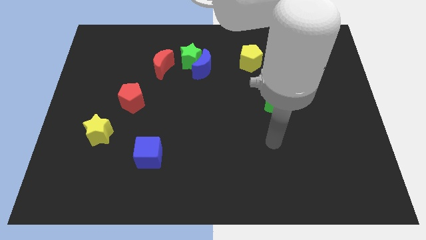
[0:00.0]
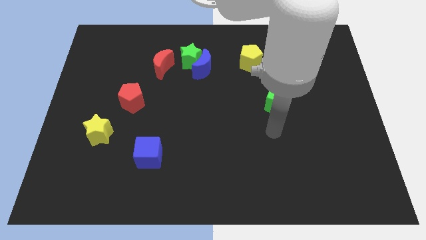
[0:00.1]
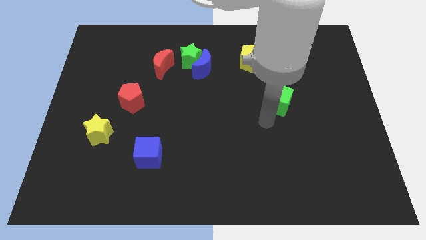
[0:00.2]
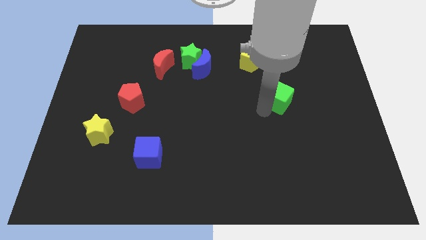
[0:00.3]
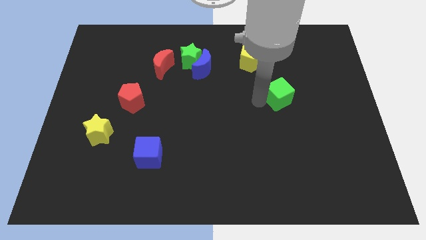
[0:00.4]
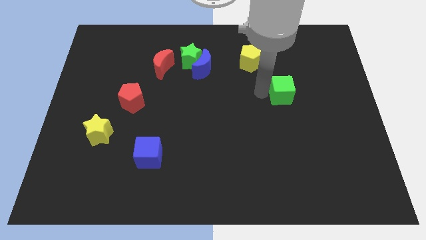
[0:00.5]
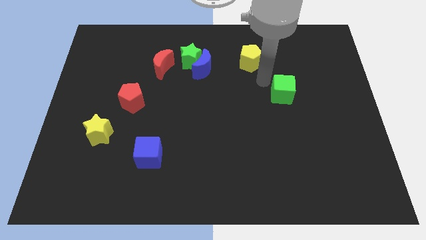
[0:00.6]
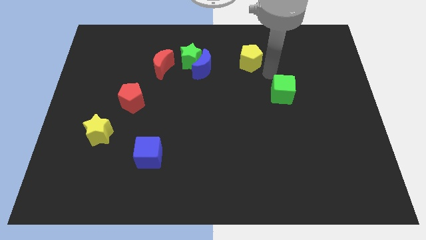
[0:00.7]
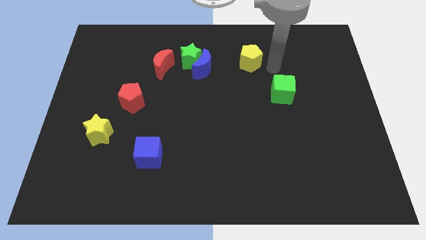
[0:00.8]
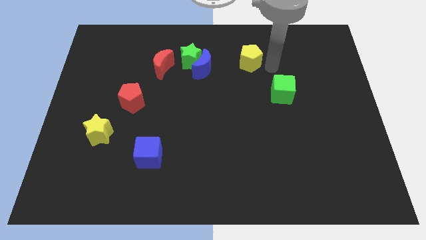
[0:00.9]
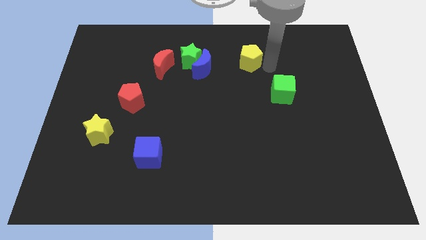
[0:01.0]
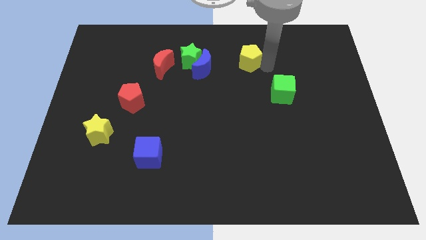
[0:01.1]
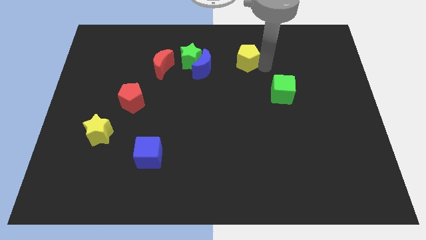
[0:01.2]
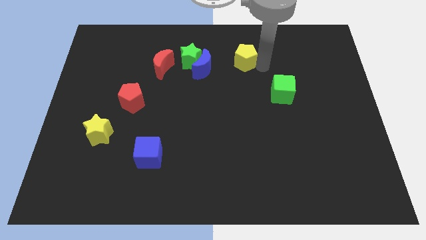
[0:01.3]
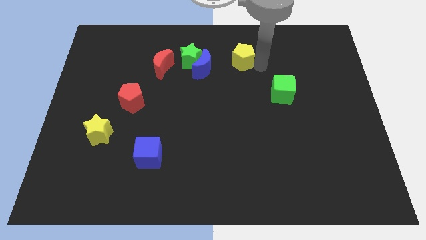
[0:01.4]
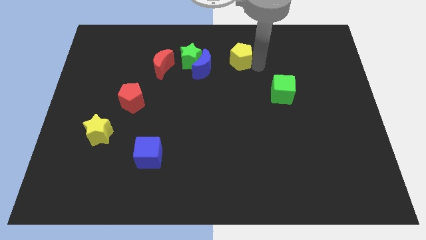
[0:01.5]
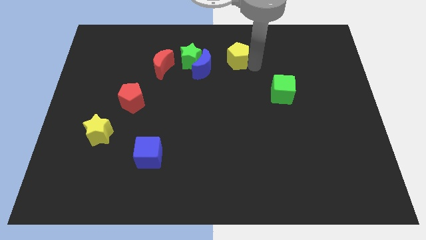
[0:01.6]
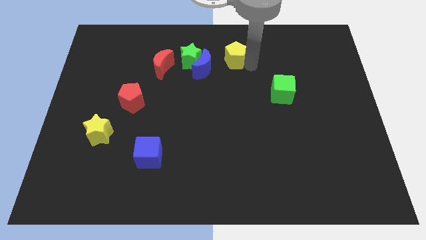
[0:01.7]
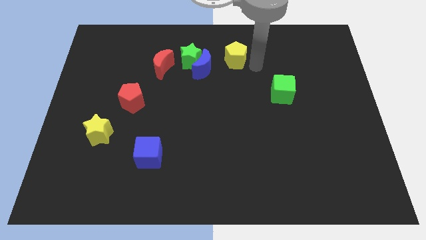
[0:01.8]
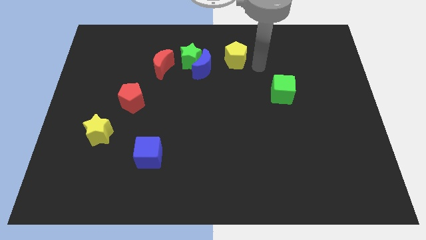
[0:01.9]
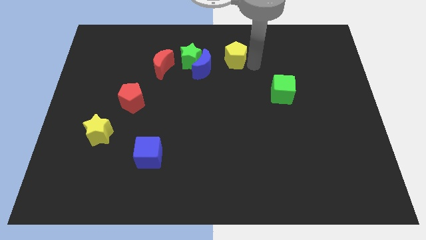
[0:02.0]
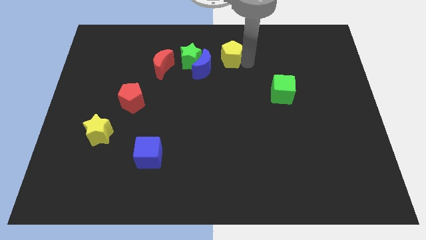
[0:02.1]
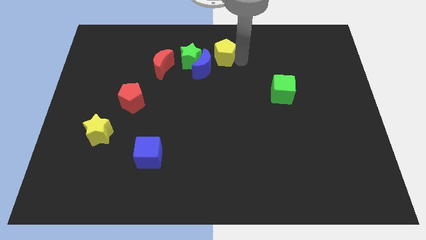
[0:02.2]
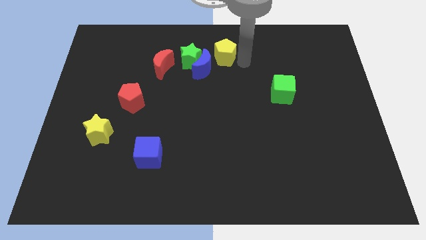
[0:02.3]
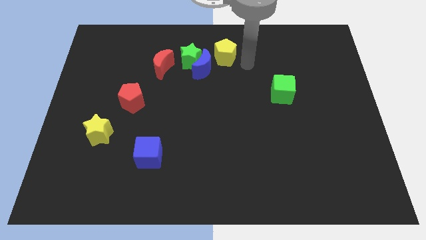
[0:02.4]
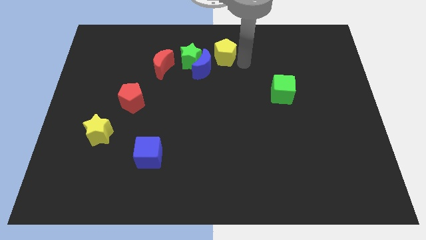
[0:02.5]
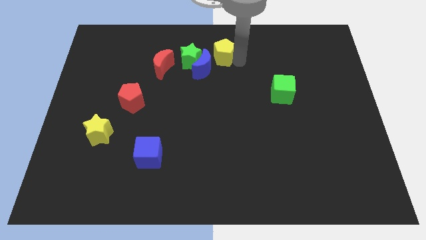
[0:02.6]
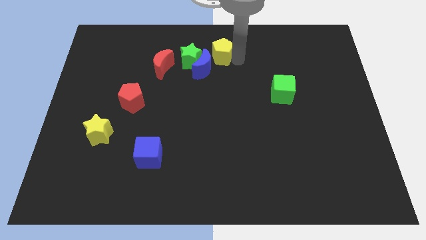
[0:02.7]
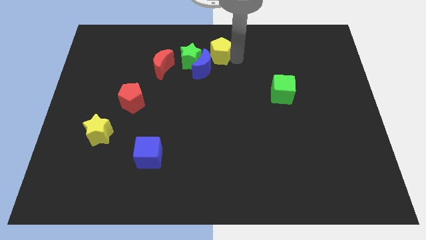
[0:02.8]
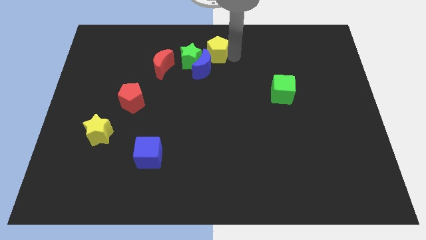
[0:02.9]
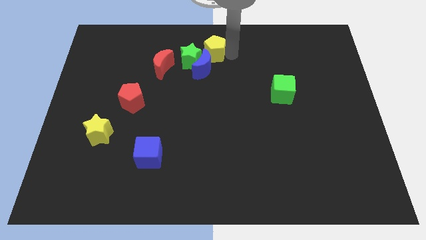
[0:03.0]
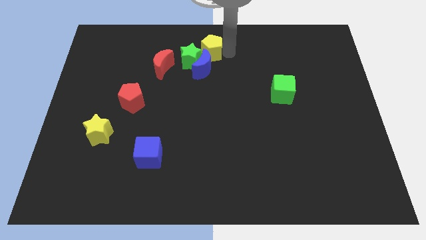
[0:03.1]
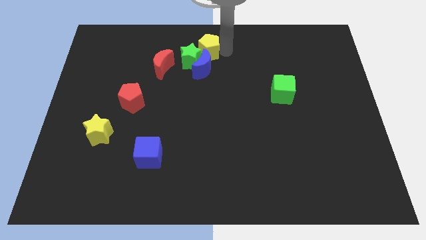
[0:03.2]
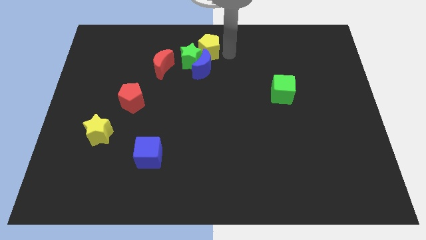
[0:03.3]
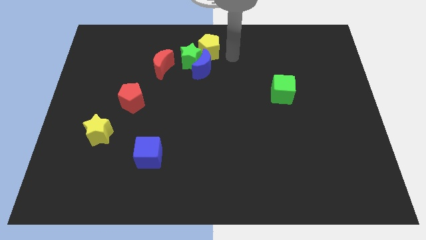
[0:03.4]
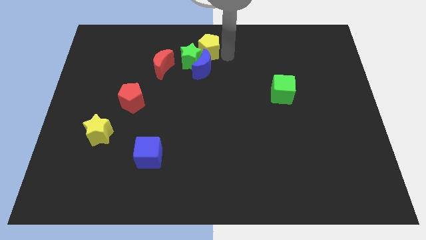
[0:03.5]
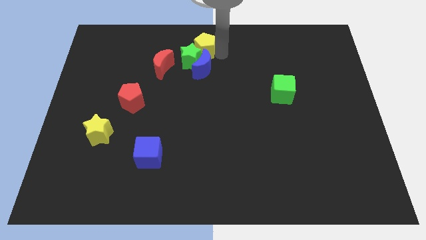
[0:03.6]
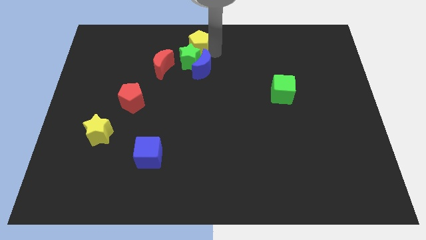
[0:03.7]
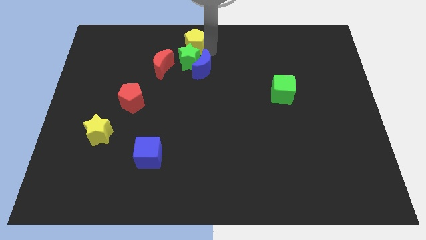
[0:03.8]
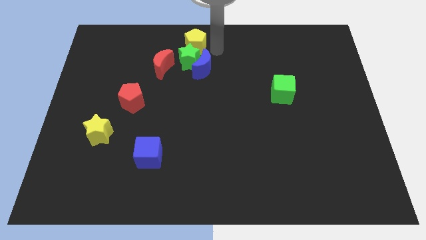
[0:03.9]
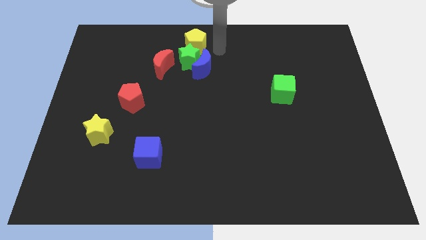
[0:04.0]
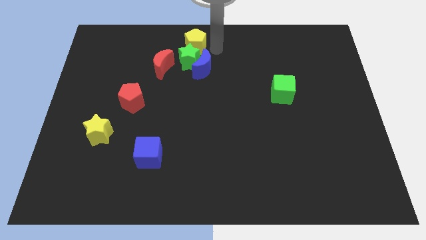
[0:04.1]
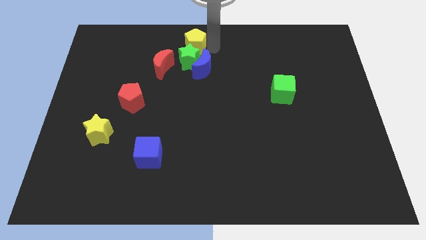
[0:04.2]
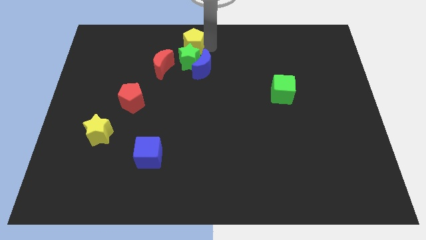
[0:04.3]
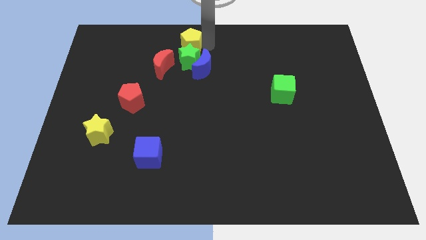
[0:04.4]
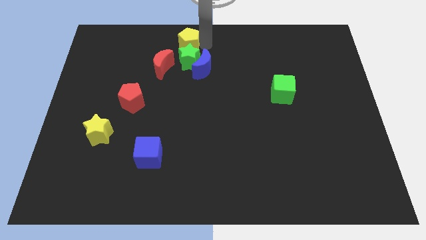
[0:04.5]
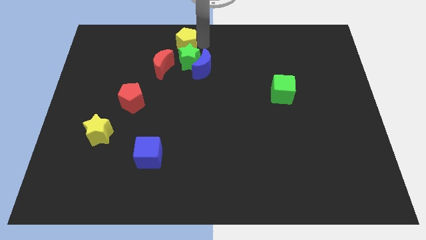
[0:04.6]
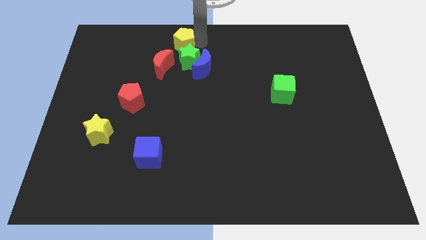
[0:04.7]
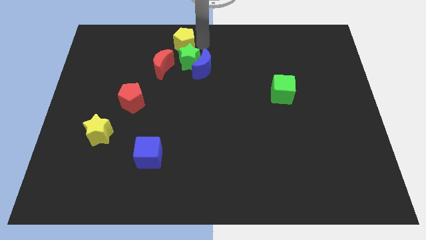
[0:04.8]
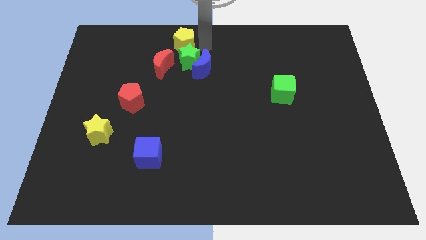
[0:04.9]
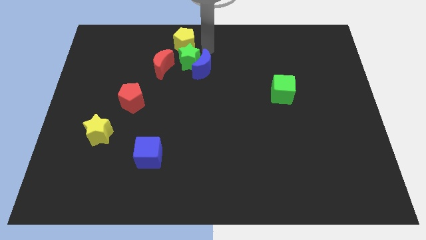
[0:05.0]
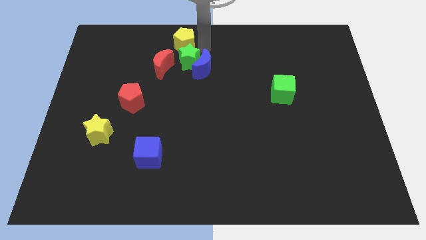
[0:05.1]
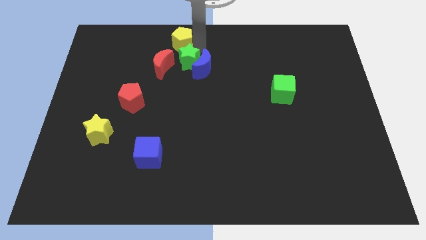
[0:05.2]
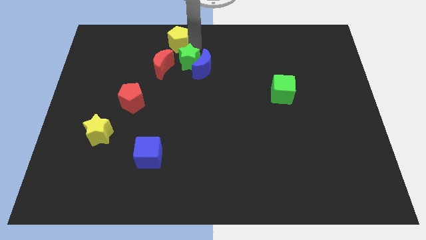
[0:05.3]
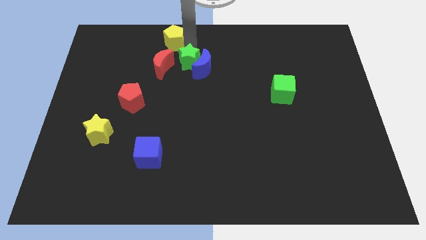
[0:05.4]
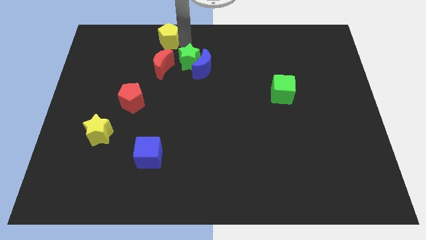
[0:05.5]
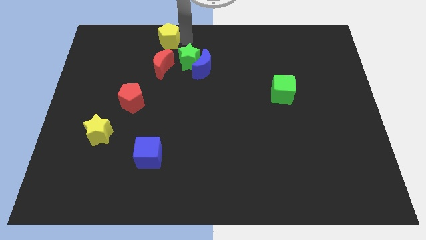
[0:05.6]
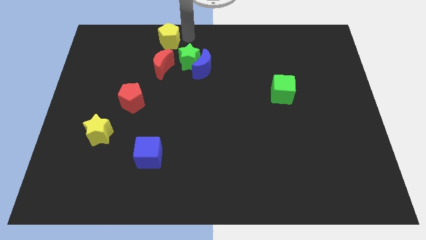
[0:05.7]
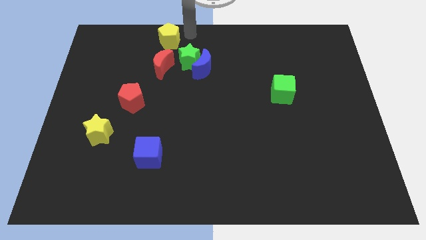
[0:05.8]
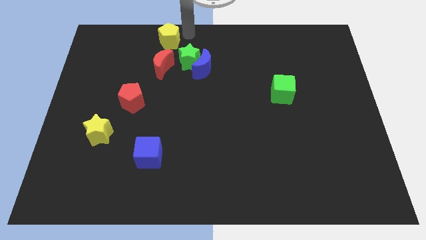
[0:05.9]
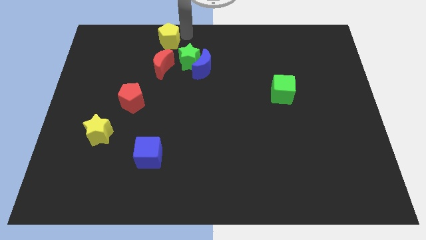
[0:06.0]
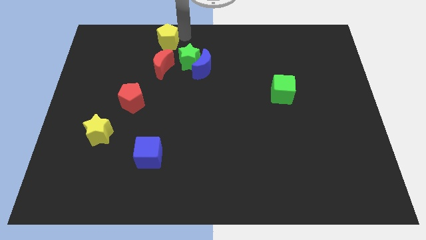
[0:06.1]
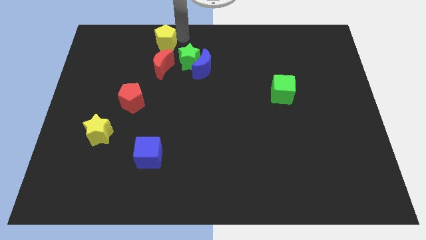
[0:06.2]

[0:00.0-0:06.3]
move the yellow pentagon to the left

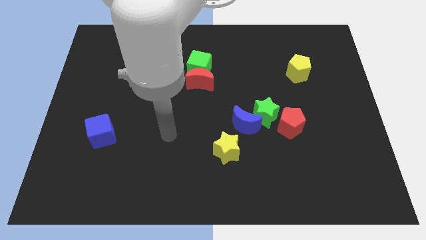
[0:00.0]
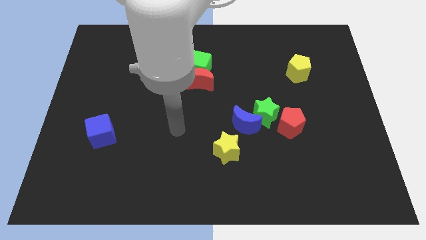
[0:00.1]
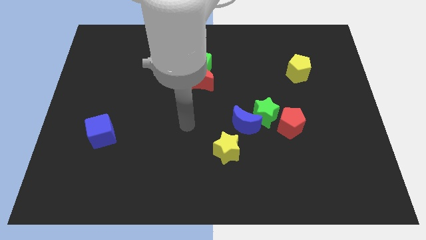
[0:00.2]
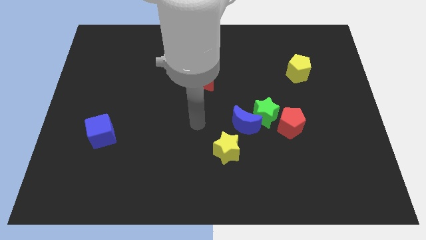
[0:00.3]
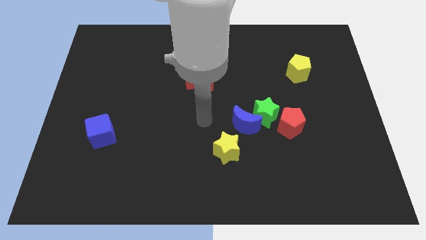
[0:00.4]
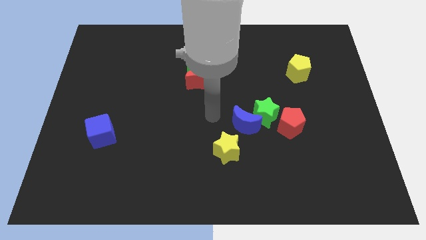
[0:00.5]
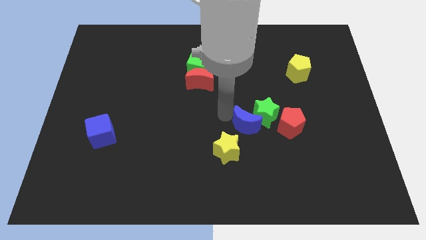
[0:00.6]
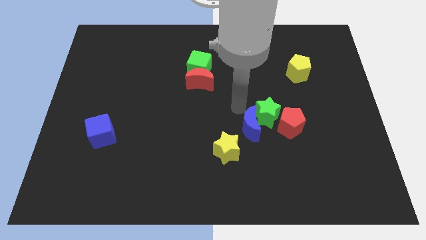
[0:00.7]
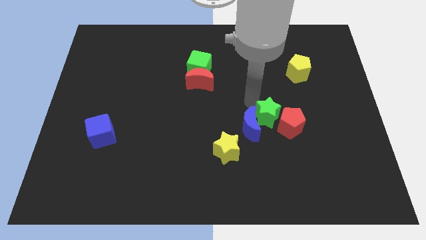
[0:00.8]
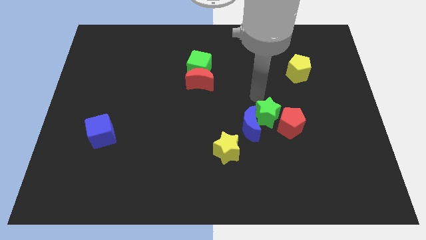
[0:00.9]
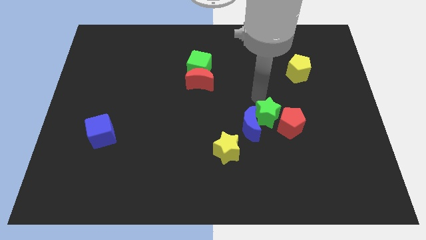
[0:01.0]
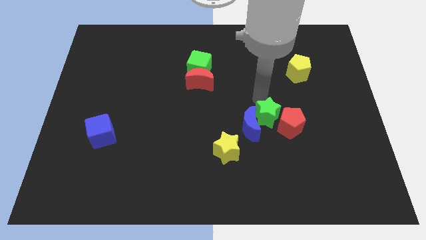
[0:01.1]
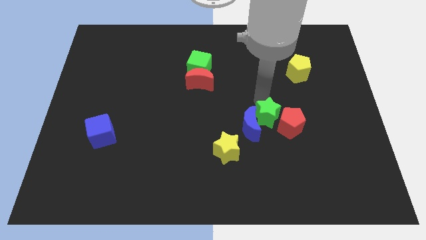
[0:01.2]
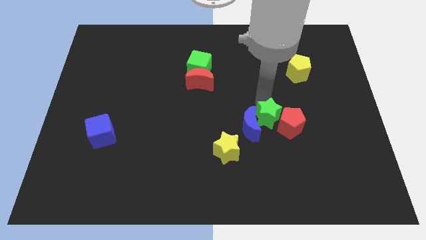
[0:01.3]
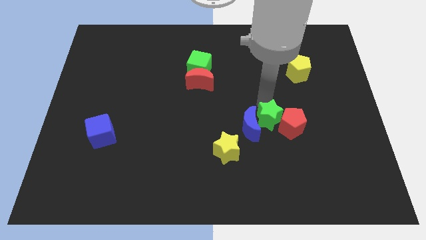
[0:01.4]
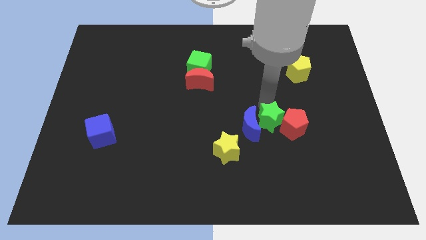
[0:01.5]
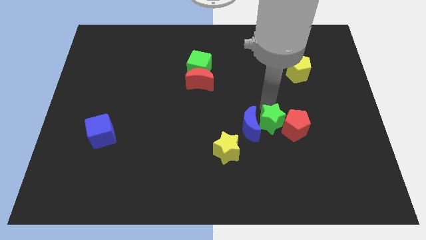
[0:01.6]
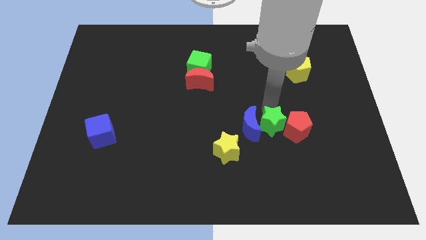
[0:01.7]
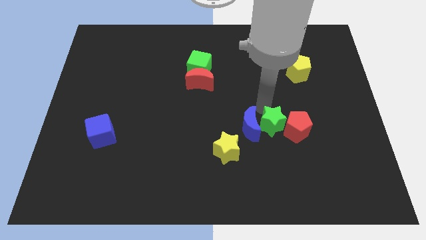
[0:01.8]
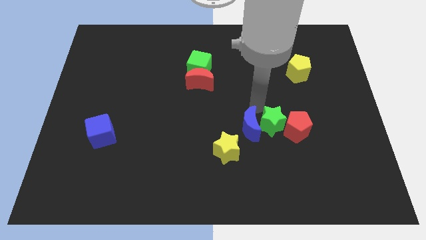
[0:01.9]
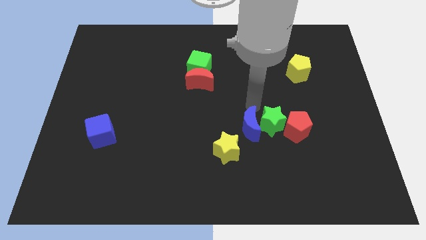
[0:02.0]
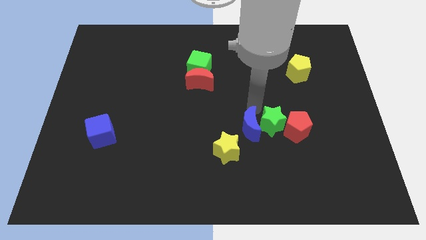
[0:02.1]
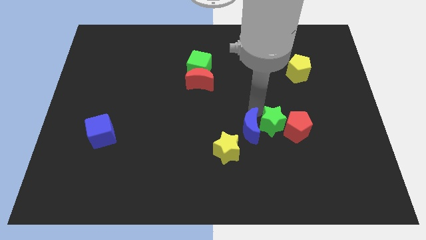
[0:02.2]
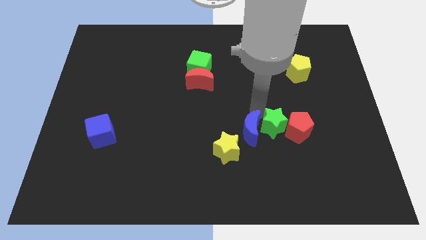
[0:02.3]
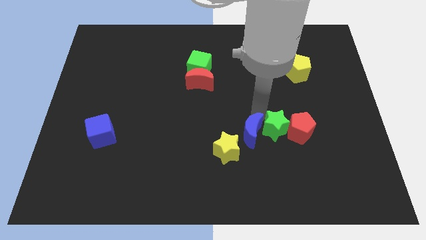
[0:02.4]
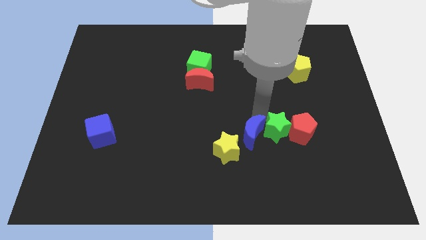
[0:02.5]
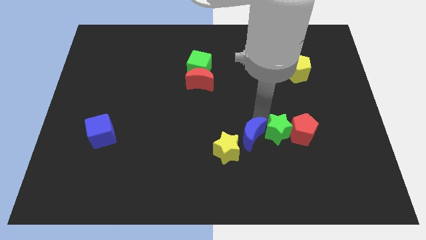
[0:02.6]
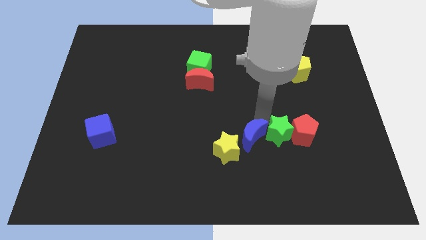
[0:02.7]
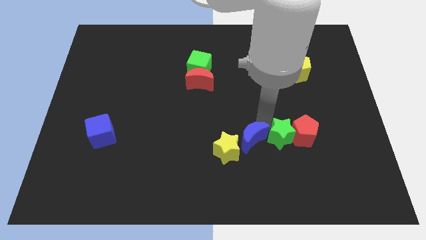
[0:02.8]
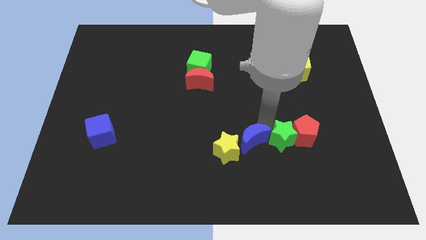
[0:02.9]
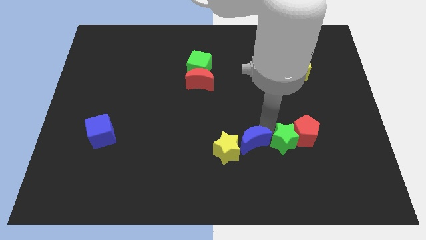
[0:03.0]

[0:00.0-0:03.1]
push the green star downwards and to the right diagonally a little bit
